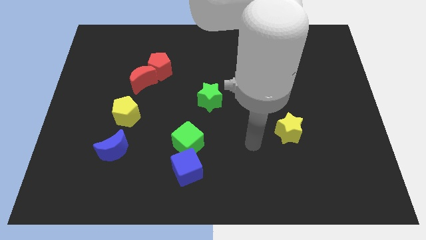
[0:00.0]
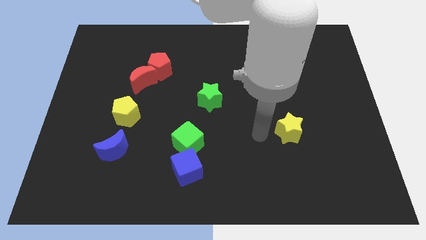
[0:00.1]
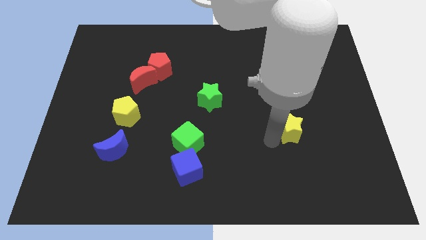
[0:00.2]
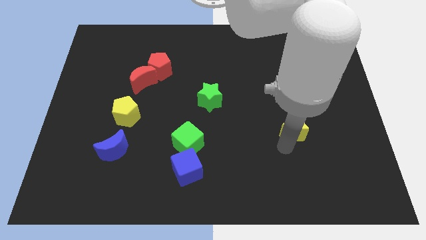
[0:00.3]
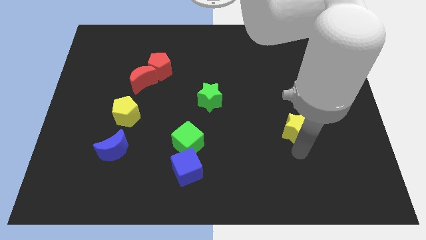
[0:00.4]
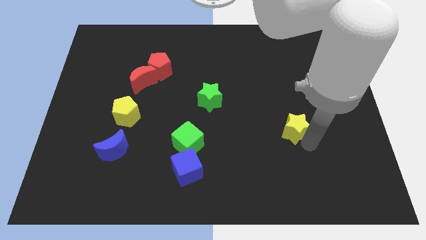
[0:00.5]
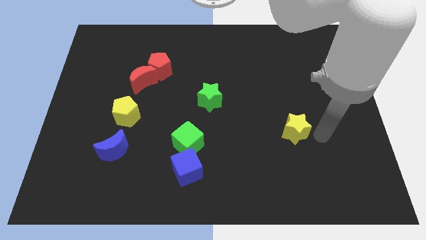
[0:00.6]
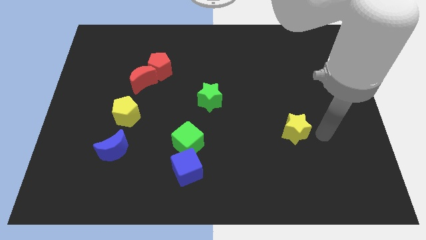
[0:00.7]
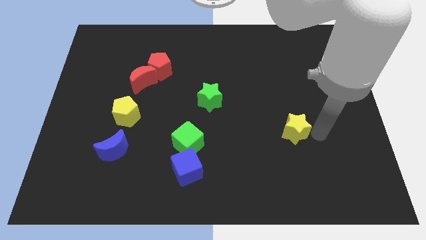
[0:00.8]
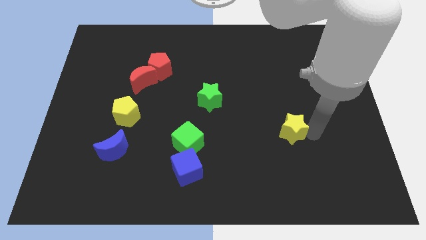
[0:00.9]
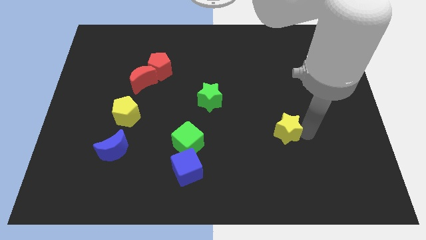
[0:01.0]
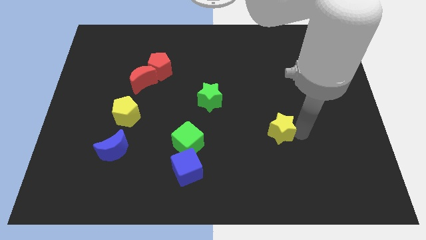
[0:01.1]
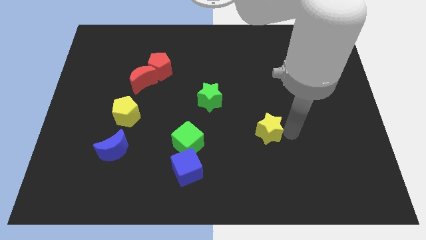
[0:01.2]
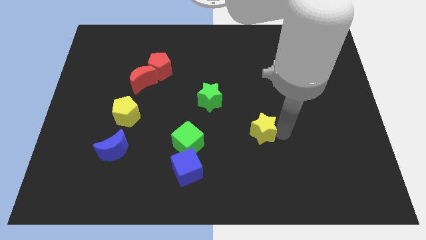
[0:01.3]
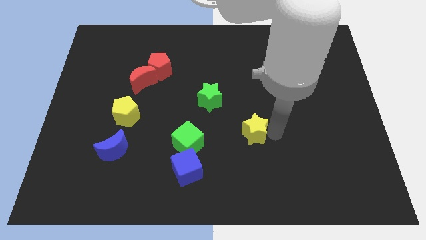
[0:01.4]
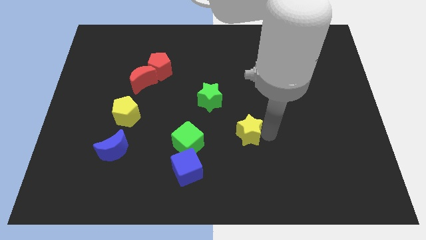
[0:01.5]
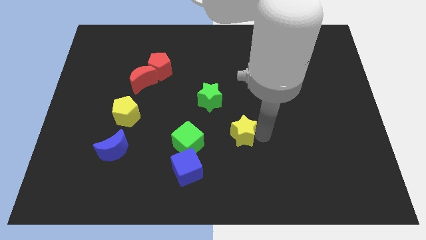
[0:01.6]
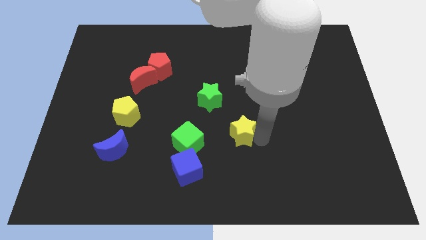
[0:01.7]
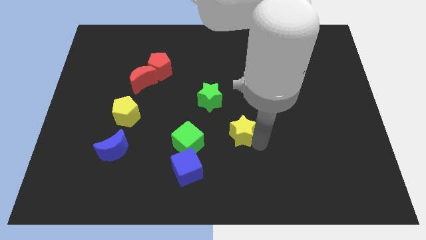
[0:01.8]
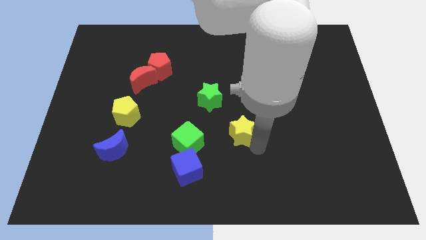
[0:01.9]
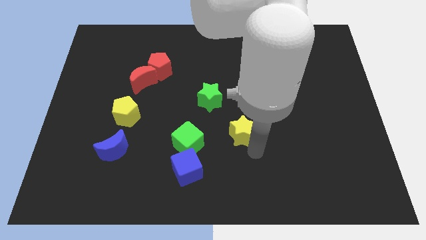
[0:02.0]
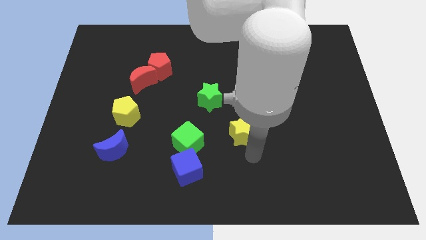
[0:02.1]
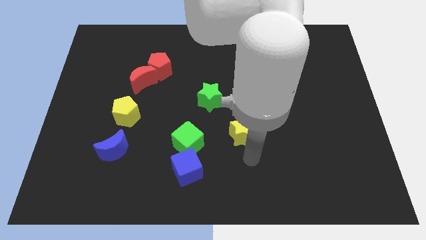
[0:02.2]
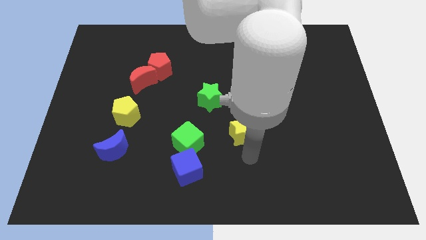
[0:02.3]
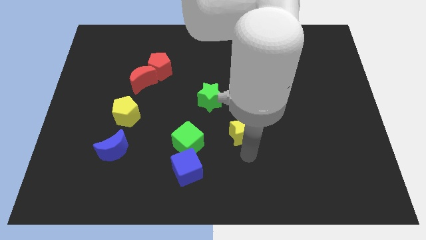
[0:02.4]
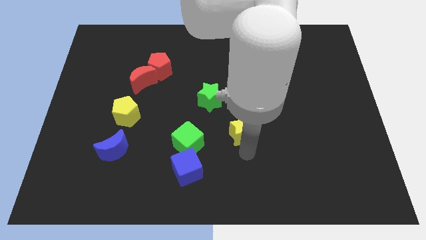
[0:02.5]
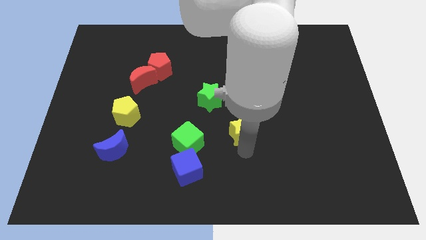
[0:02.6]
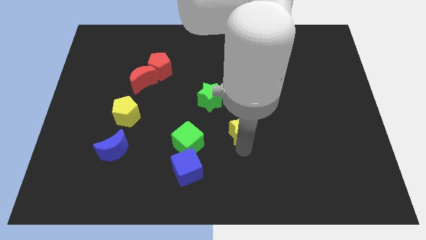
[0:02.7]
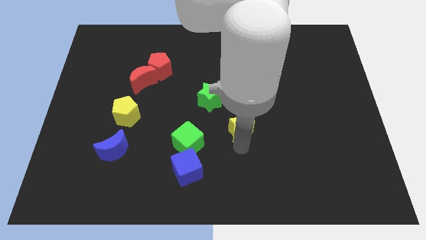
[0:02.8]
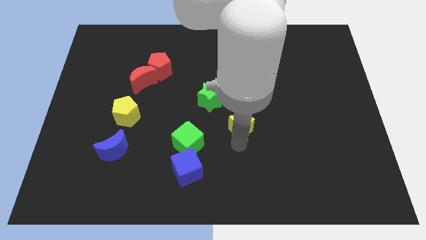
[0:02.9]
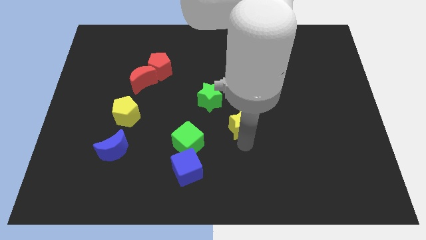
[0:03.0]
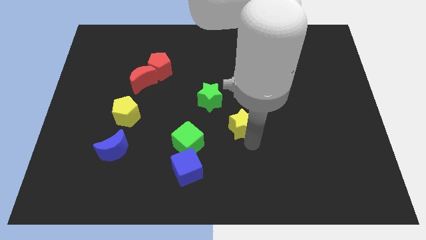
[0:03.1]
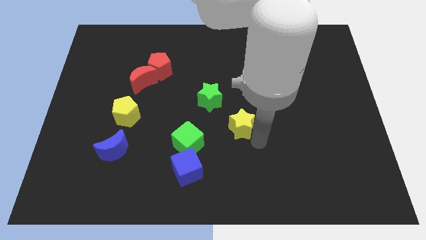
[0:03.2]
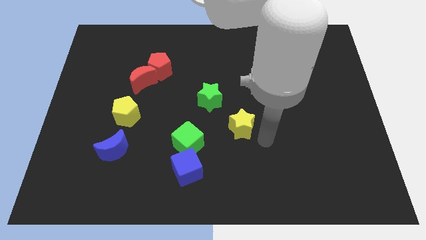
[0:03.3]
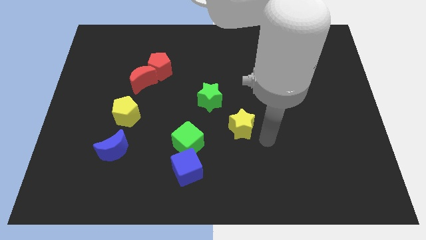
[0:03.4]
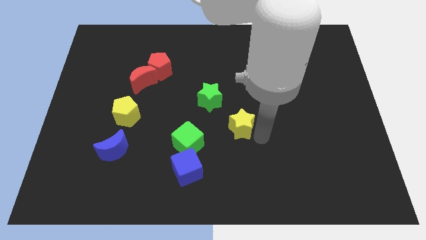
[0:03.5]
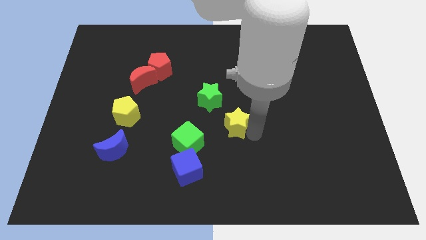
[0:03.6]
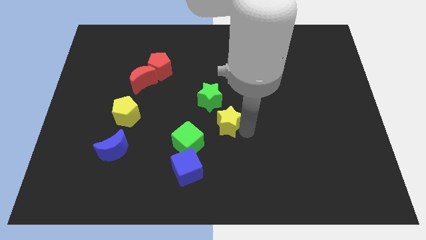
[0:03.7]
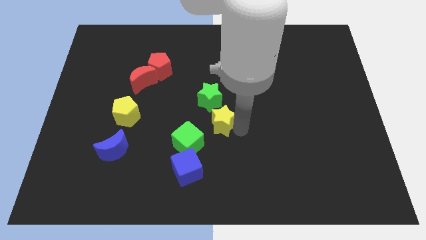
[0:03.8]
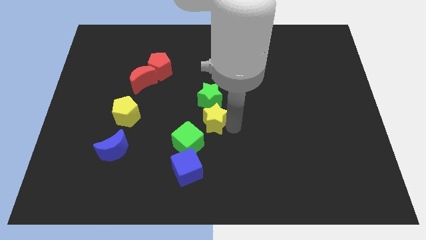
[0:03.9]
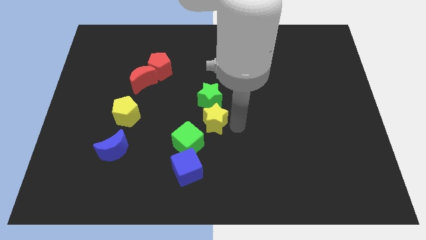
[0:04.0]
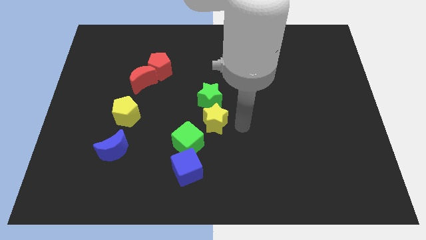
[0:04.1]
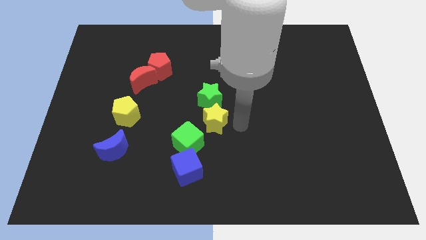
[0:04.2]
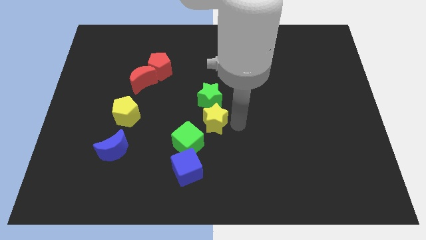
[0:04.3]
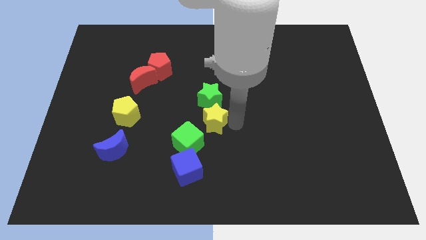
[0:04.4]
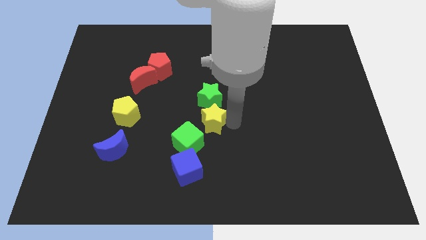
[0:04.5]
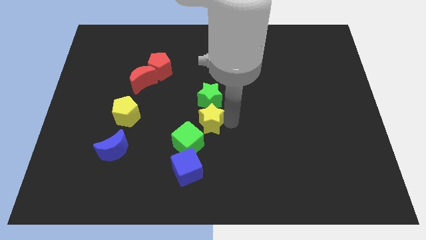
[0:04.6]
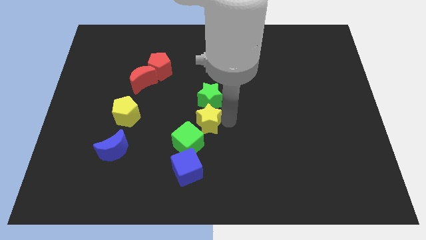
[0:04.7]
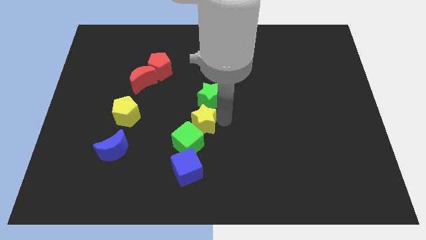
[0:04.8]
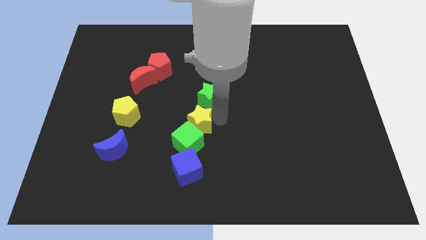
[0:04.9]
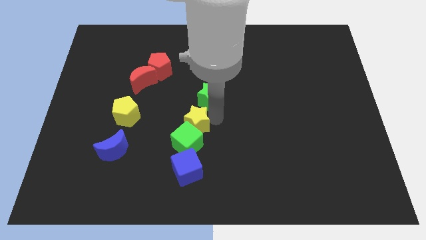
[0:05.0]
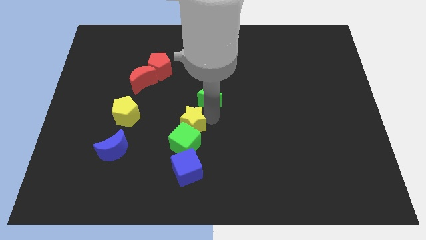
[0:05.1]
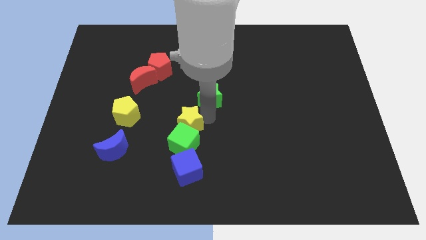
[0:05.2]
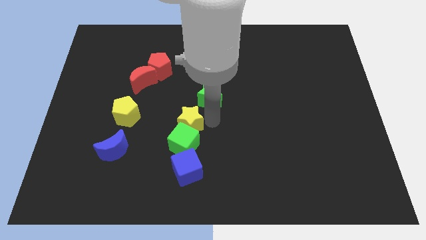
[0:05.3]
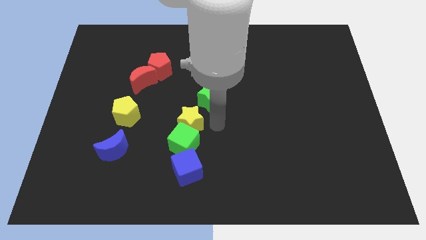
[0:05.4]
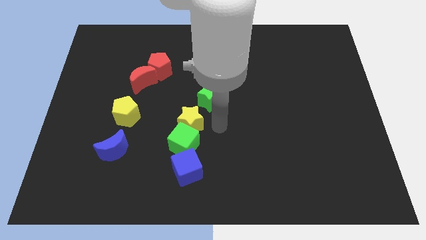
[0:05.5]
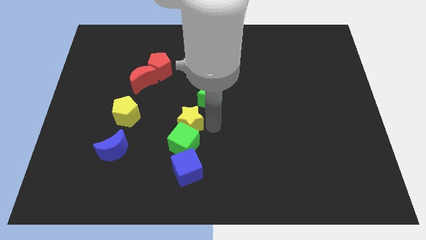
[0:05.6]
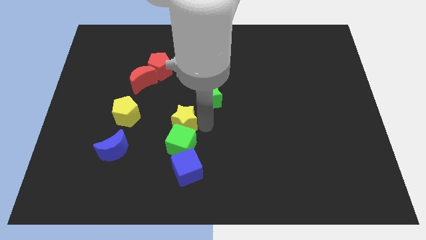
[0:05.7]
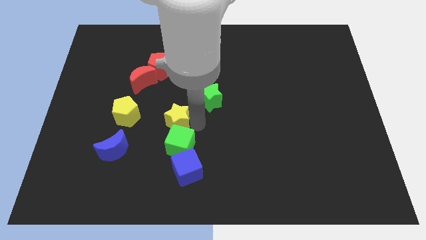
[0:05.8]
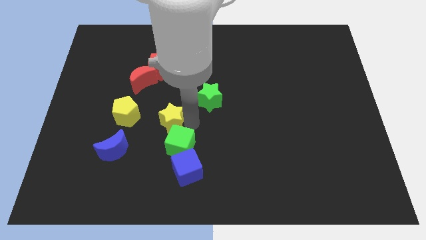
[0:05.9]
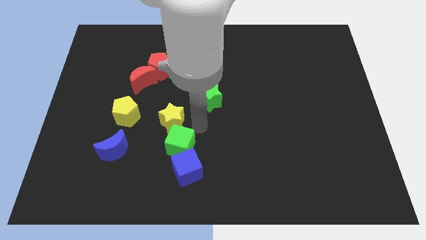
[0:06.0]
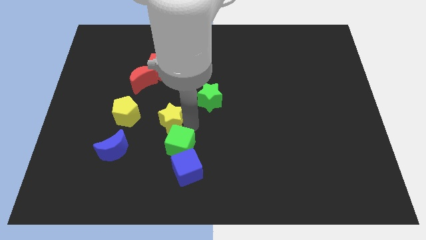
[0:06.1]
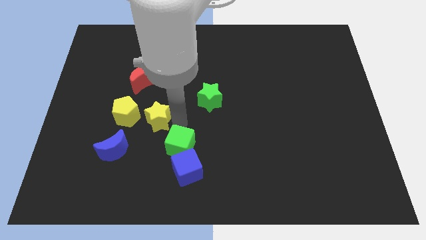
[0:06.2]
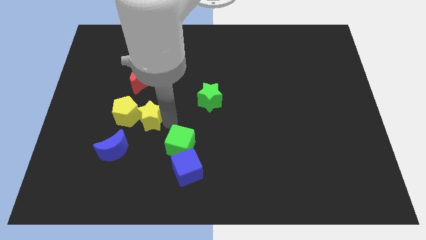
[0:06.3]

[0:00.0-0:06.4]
move the yellow star towards the yellow pentagon
